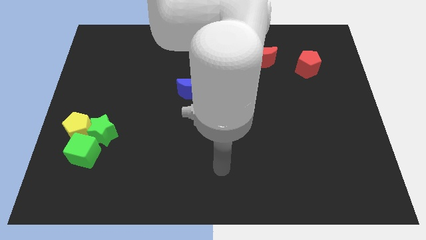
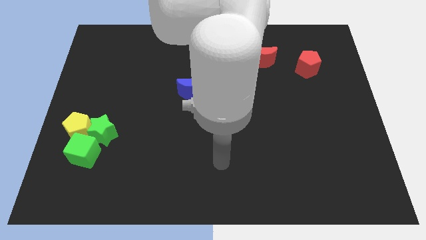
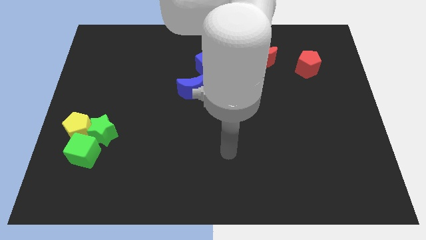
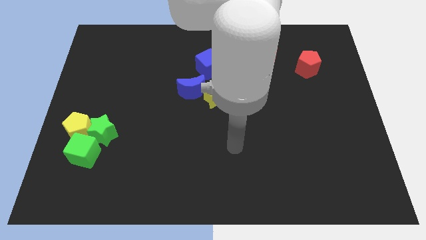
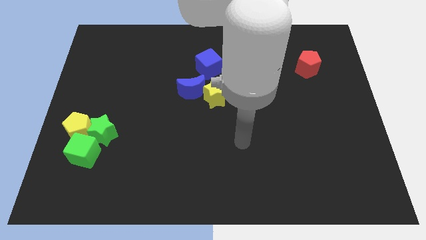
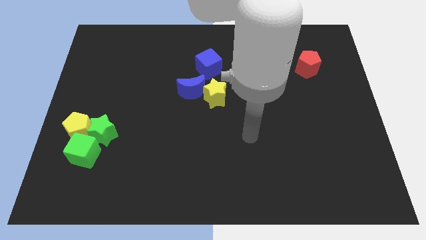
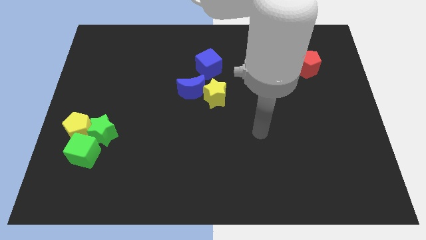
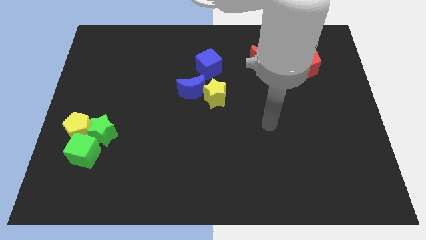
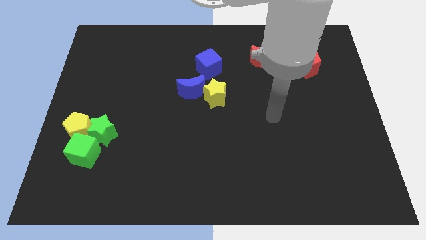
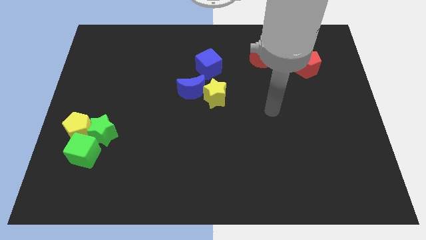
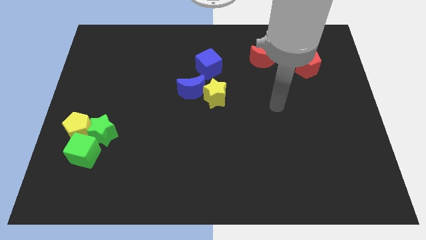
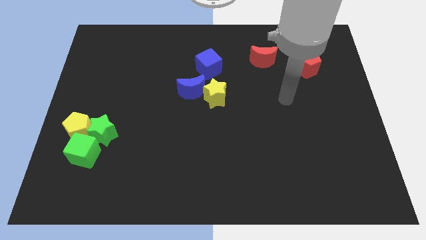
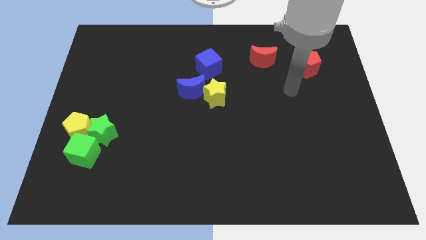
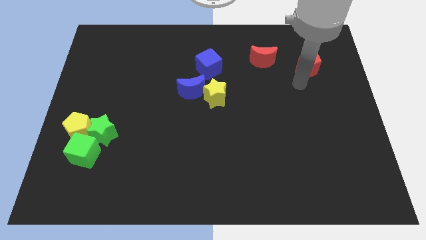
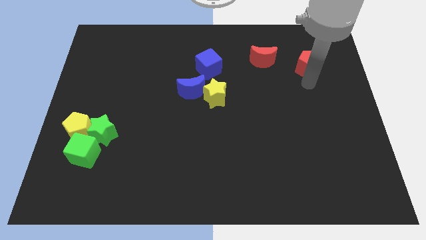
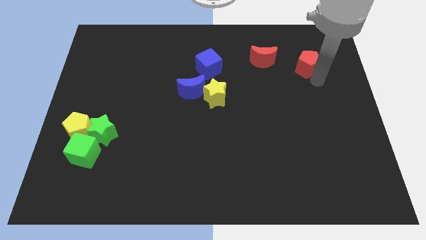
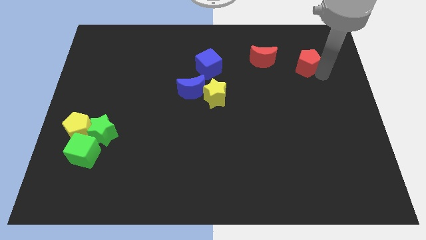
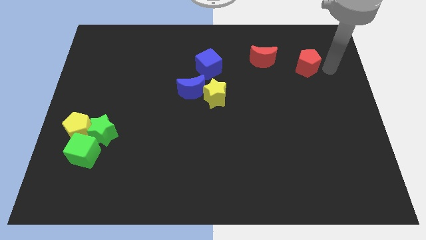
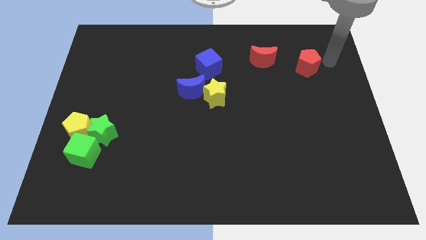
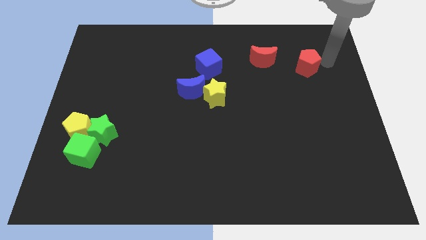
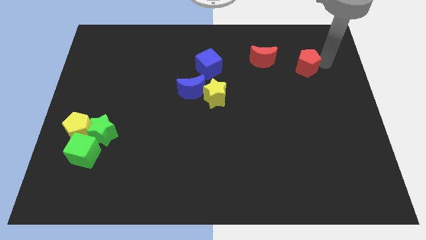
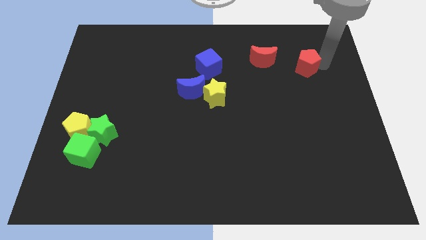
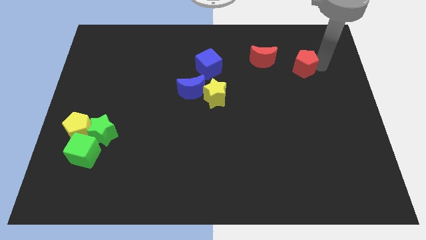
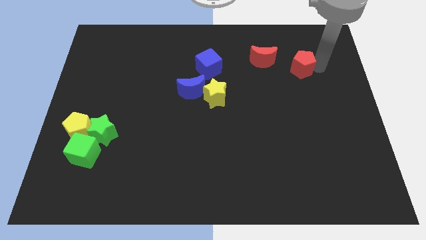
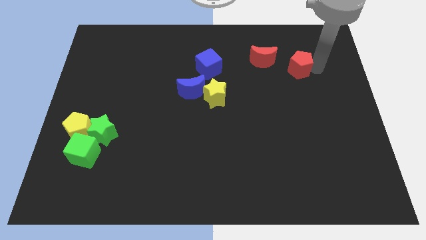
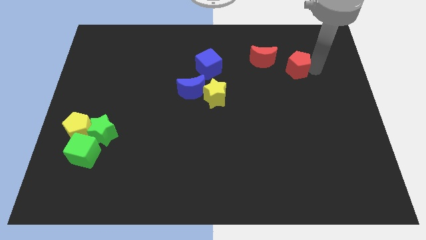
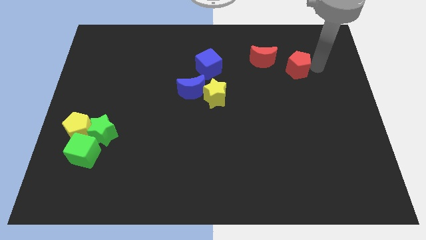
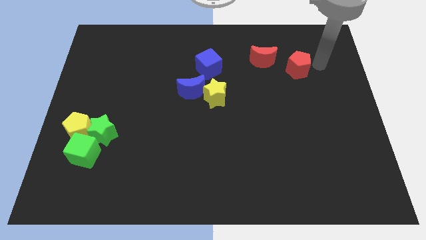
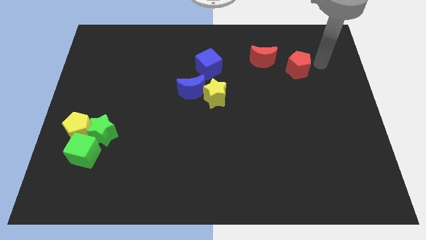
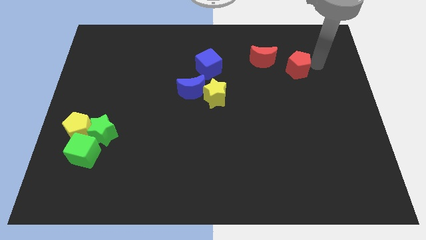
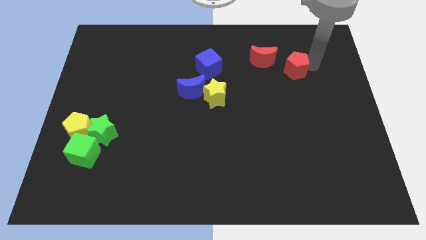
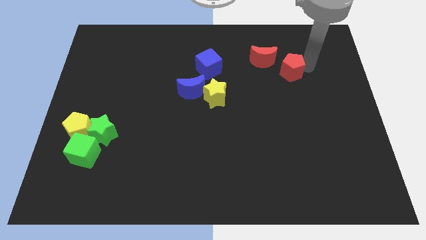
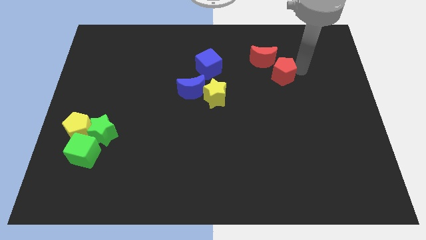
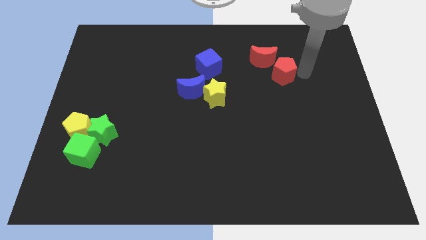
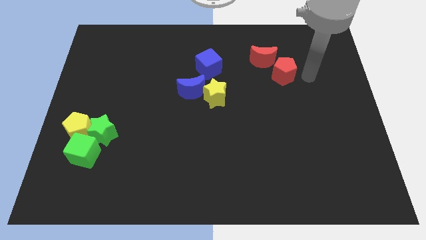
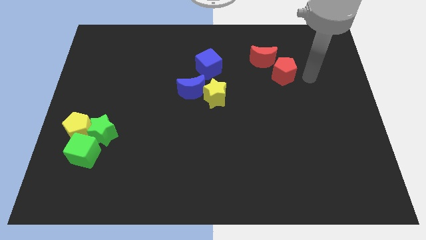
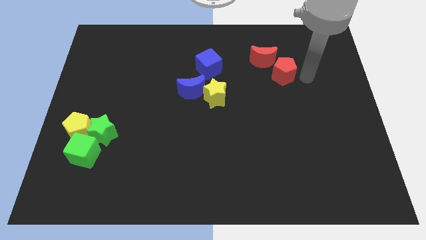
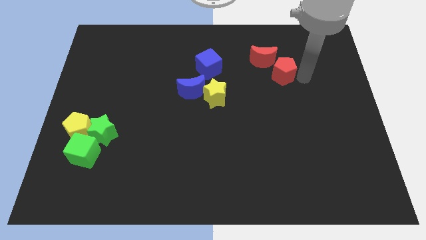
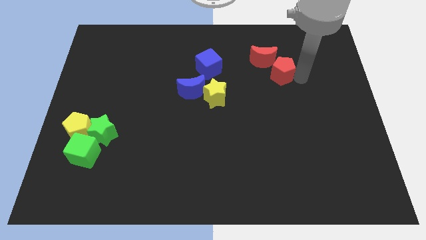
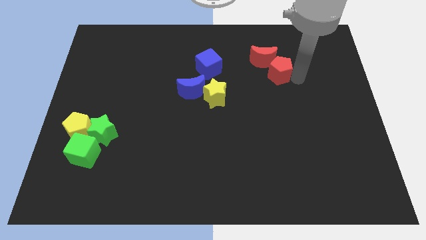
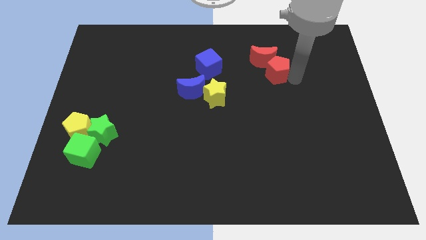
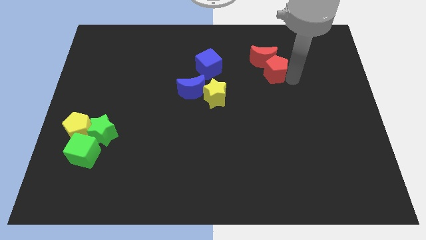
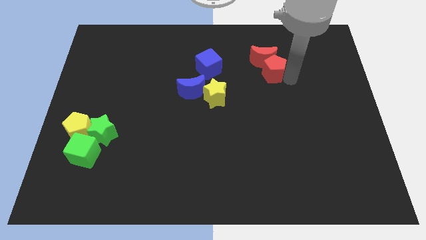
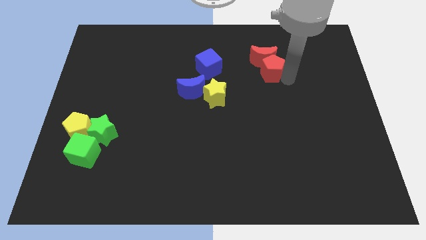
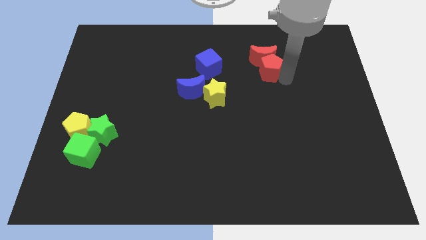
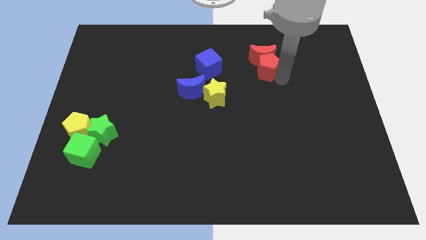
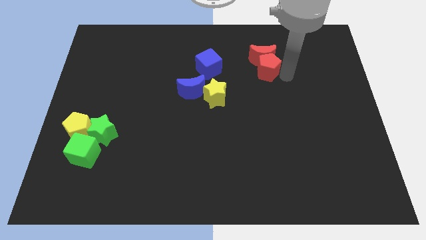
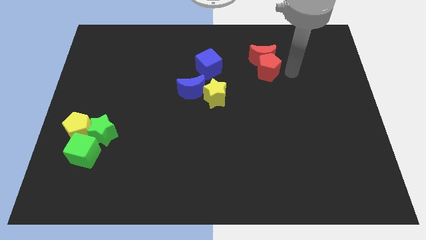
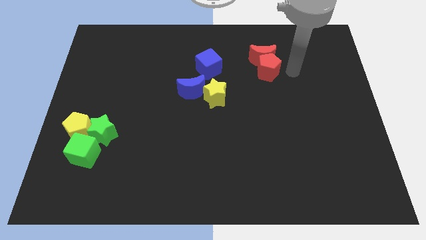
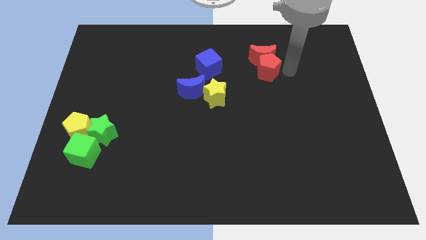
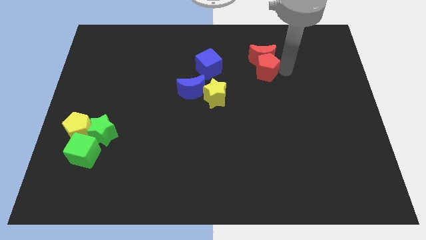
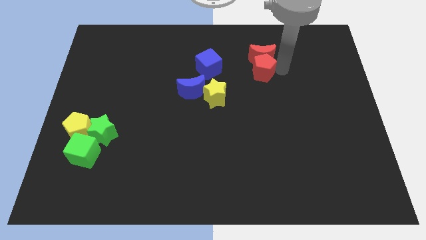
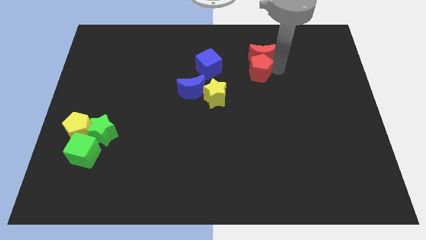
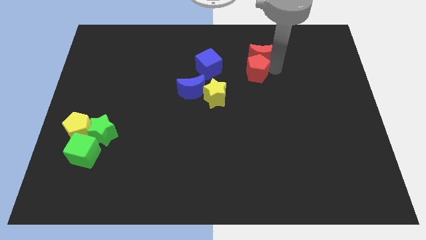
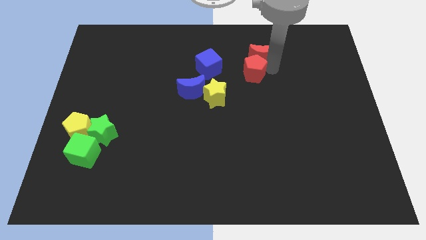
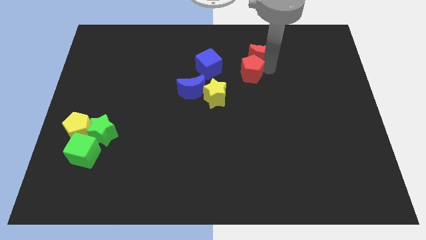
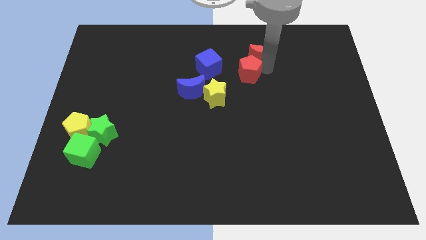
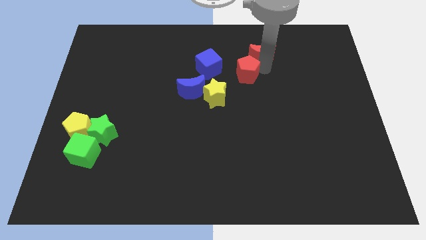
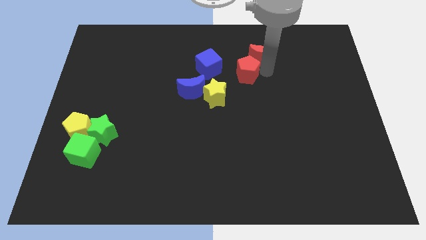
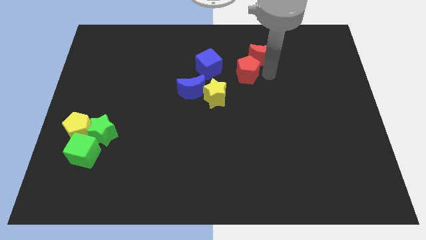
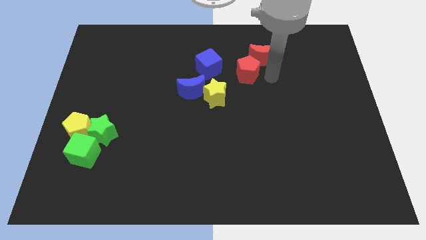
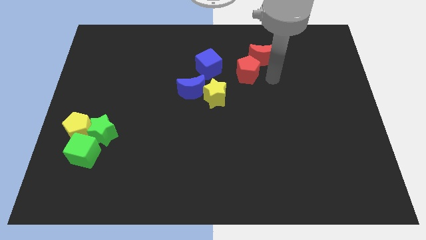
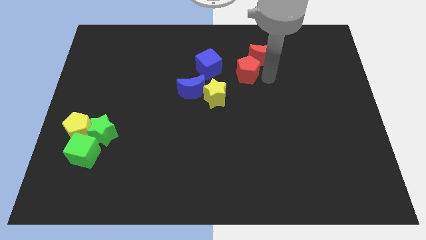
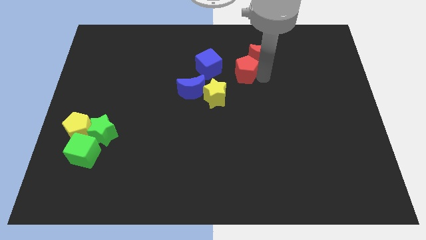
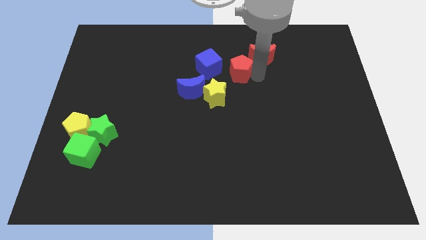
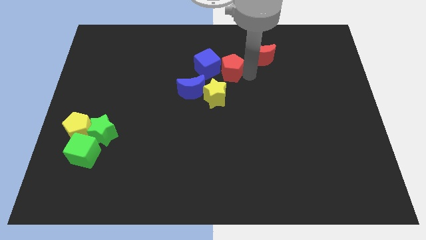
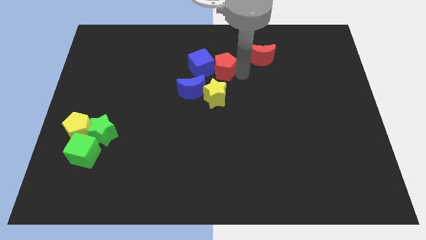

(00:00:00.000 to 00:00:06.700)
push the red pentagon close to the blue cube

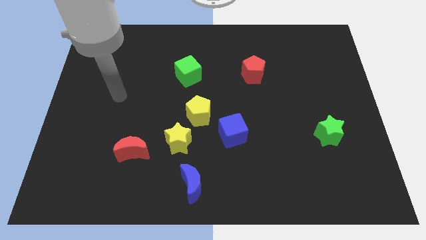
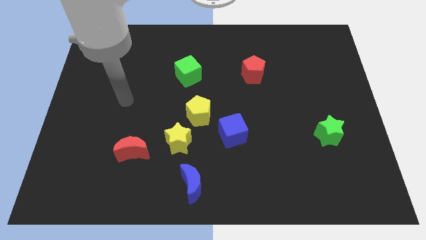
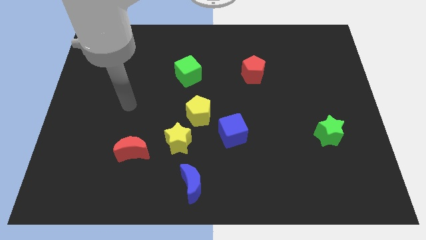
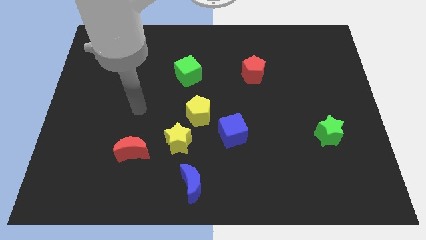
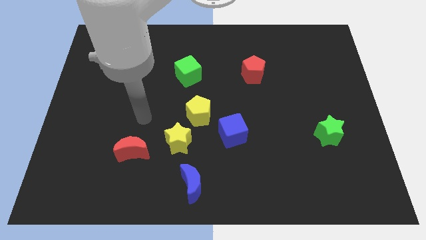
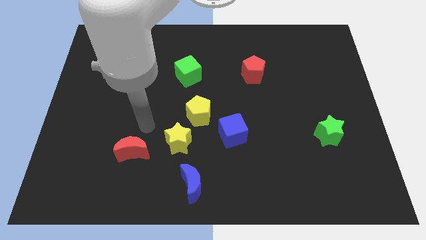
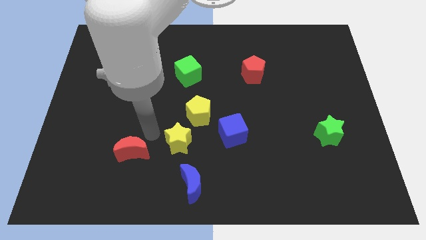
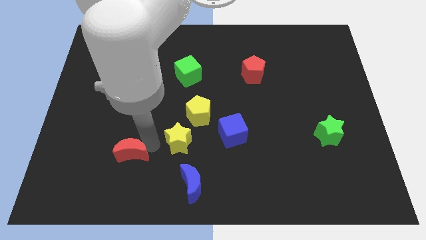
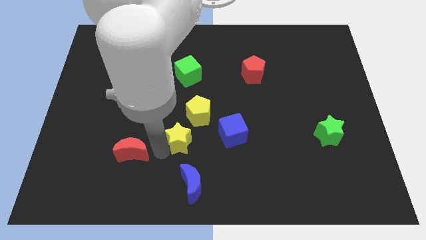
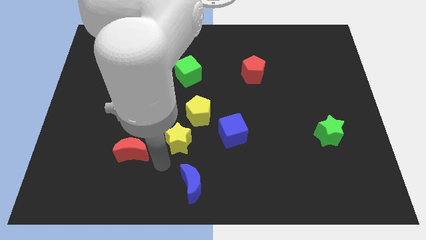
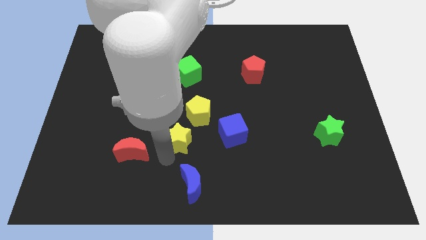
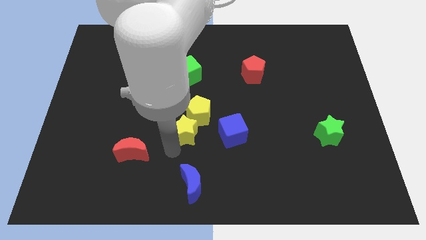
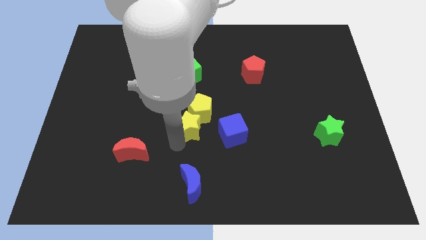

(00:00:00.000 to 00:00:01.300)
push the yellow star next to the yellow pentagon
